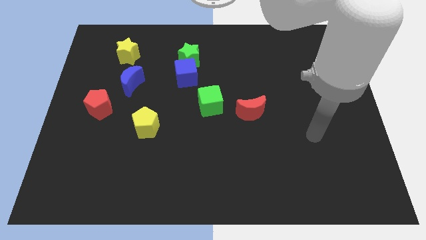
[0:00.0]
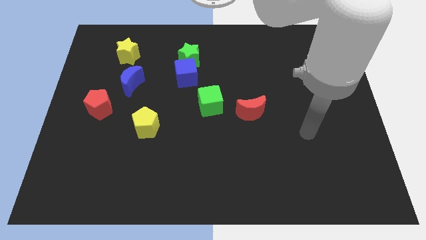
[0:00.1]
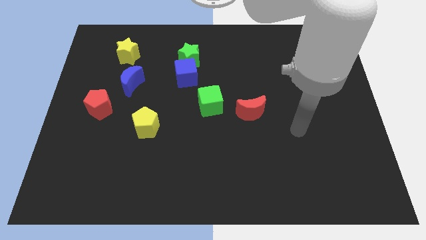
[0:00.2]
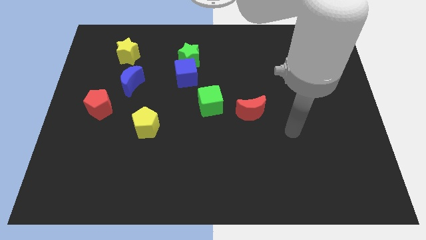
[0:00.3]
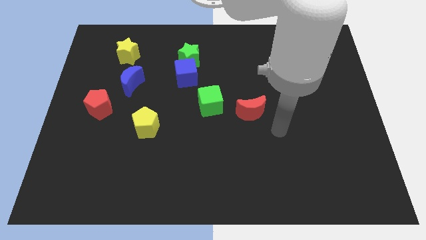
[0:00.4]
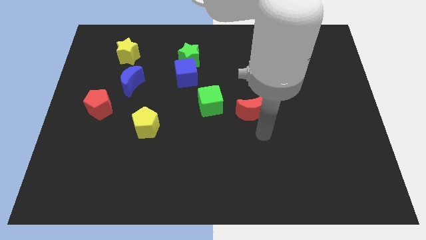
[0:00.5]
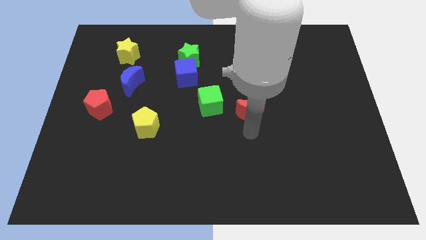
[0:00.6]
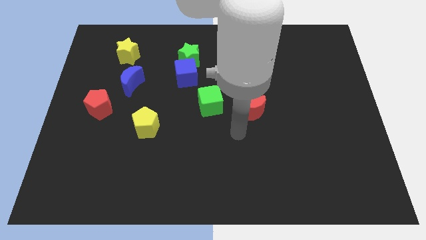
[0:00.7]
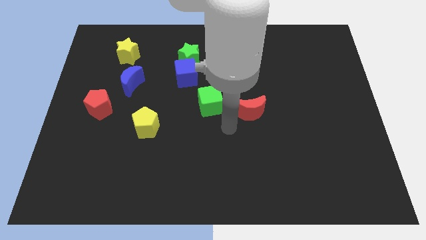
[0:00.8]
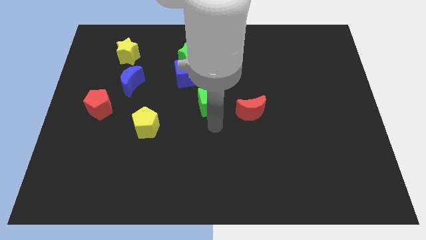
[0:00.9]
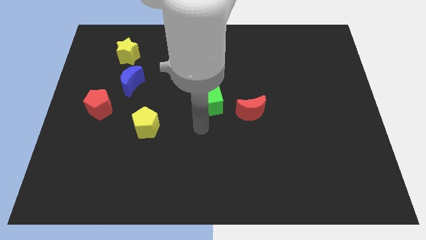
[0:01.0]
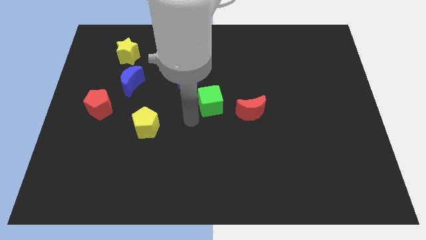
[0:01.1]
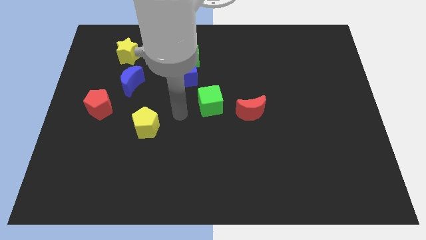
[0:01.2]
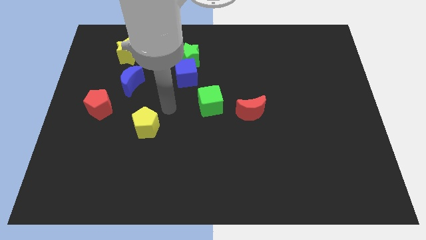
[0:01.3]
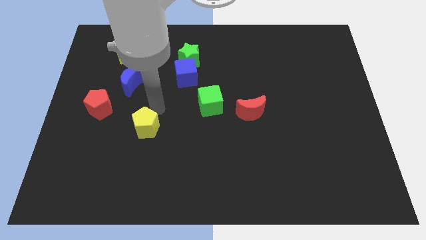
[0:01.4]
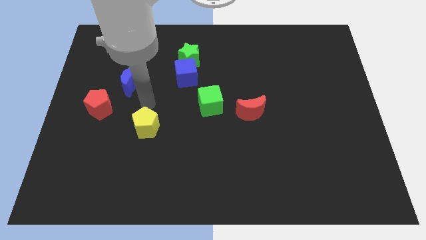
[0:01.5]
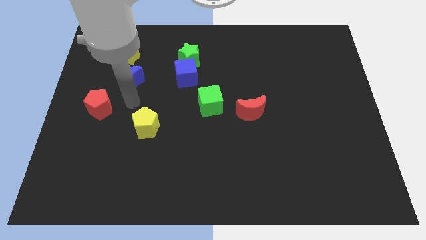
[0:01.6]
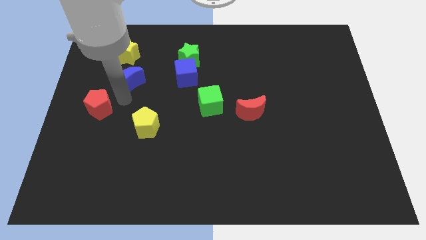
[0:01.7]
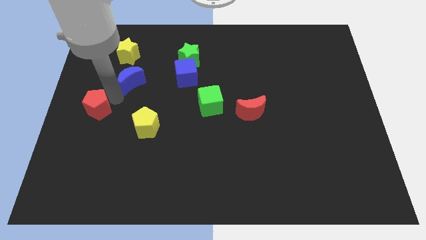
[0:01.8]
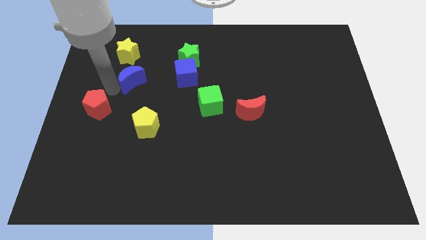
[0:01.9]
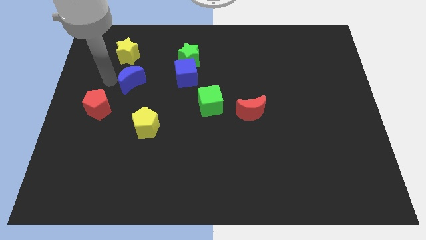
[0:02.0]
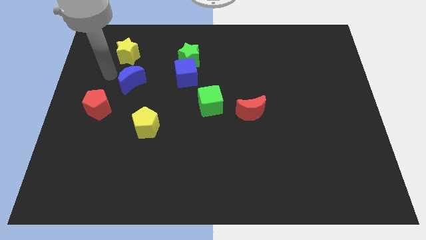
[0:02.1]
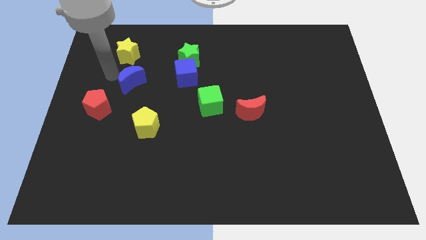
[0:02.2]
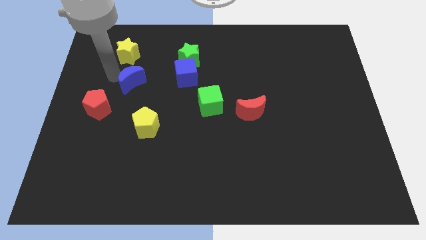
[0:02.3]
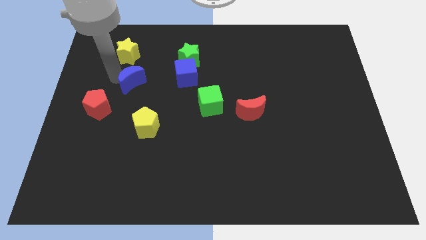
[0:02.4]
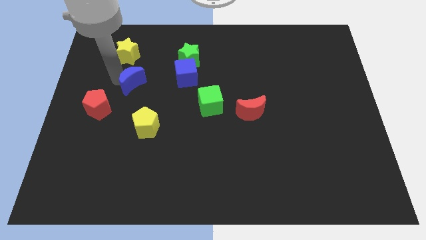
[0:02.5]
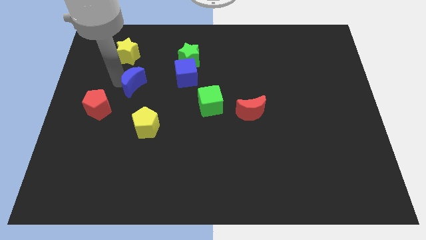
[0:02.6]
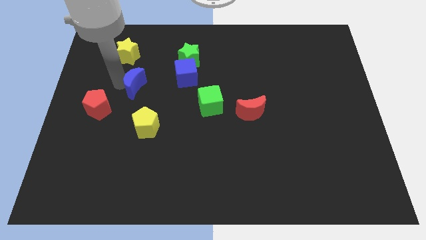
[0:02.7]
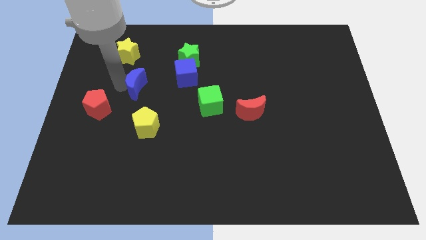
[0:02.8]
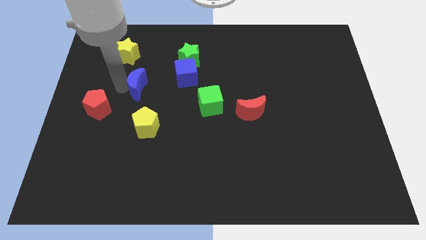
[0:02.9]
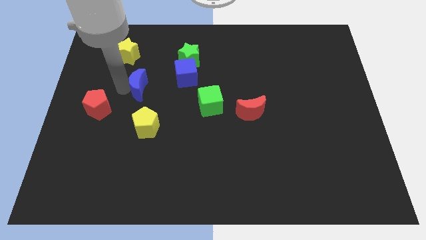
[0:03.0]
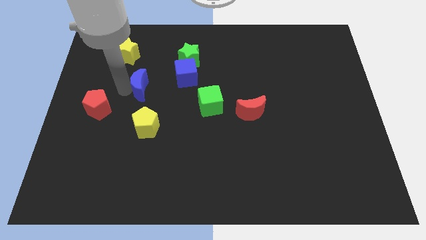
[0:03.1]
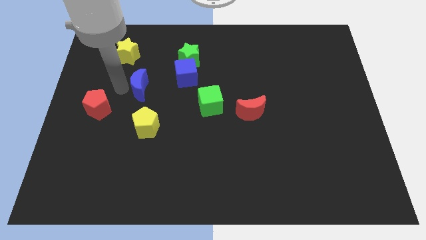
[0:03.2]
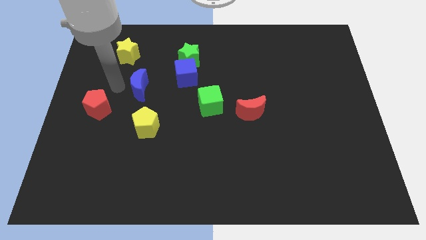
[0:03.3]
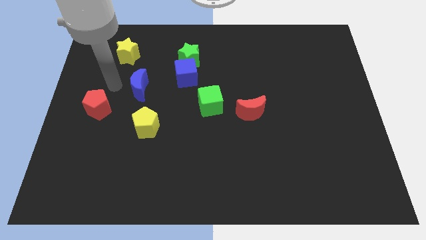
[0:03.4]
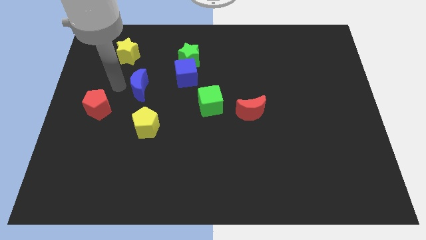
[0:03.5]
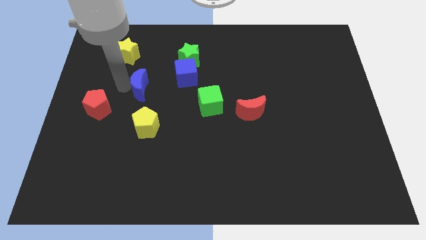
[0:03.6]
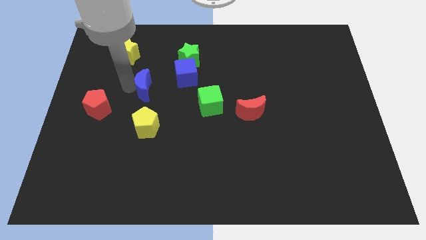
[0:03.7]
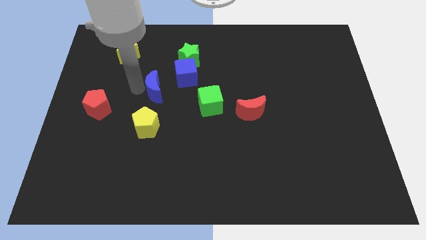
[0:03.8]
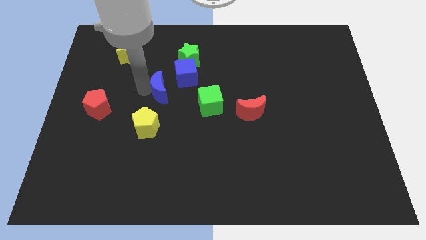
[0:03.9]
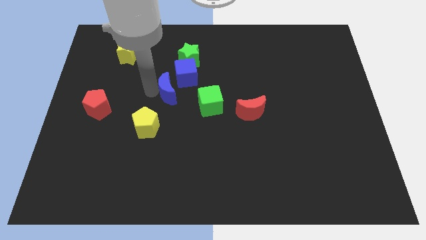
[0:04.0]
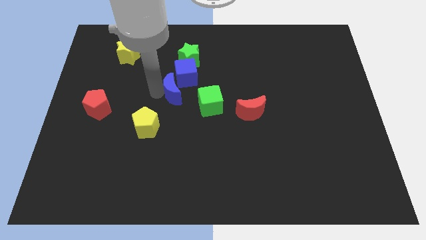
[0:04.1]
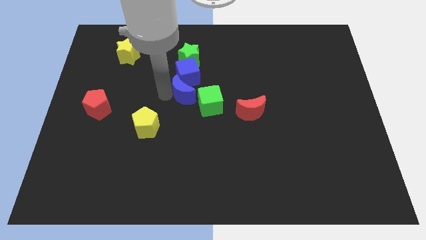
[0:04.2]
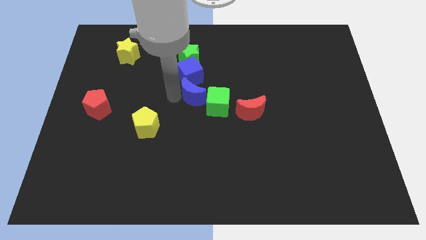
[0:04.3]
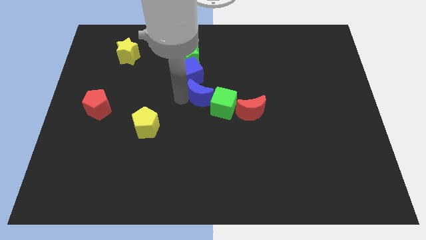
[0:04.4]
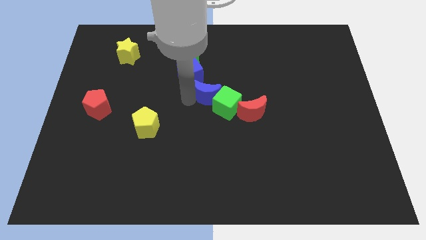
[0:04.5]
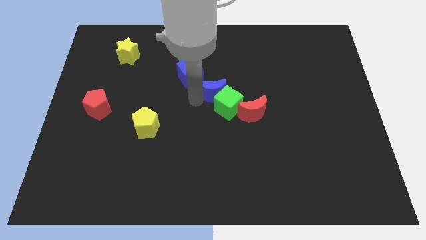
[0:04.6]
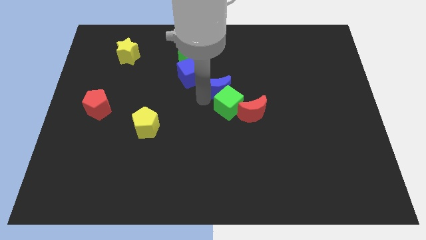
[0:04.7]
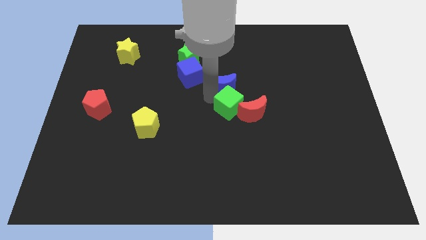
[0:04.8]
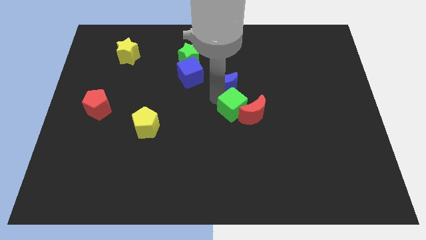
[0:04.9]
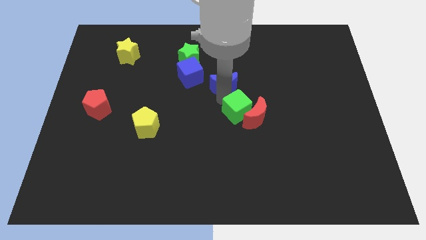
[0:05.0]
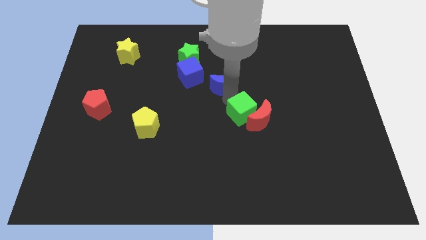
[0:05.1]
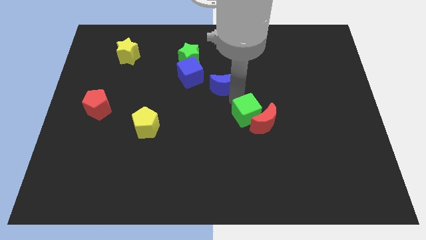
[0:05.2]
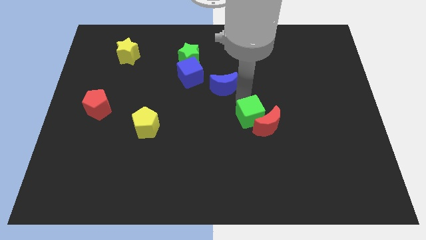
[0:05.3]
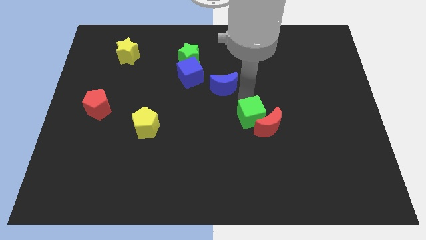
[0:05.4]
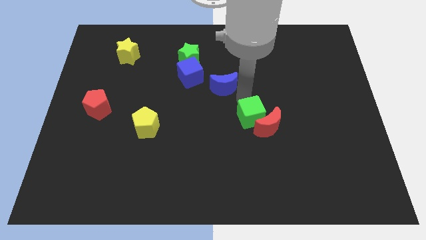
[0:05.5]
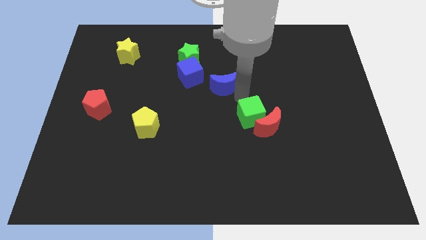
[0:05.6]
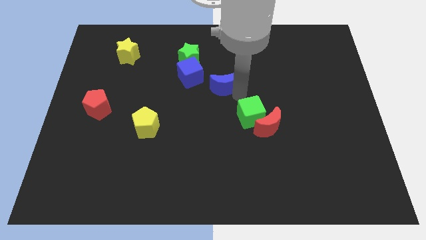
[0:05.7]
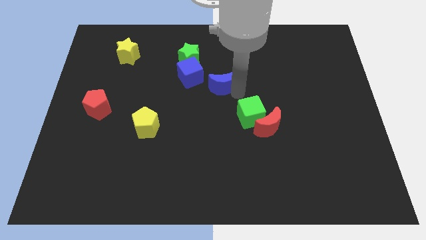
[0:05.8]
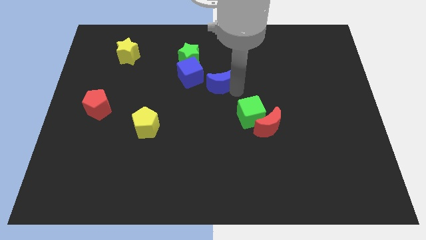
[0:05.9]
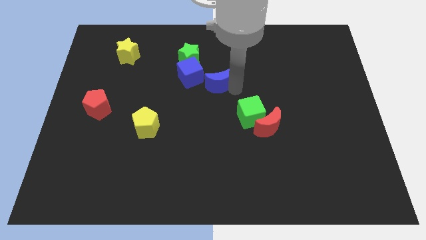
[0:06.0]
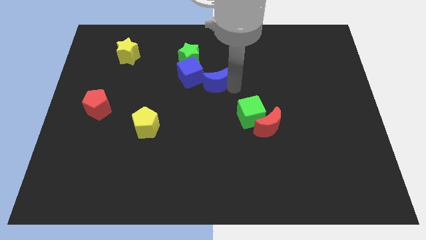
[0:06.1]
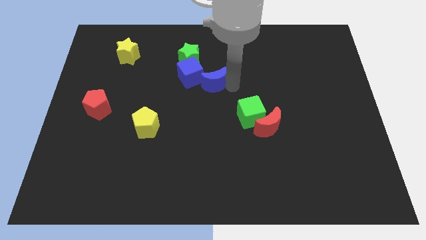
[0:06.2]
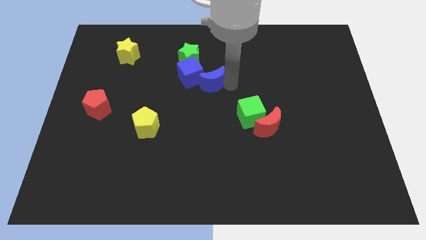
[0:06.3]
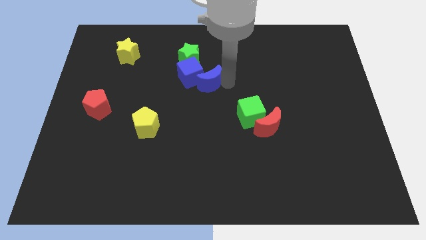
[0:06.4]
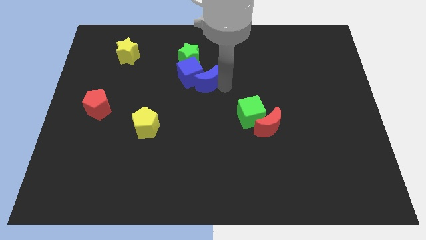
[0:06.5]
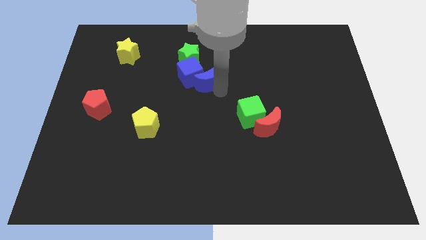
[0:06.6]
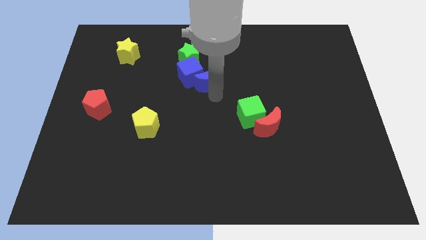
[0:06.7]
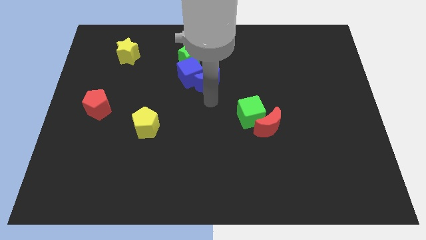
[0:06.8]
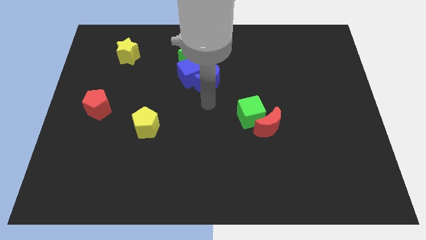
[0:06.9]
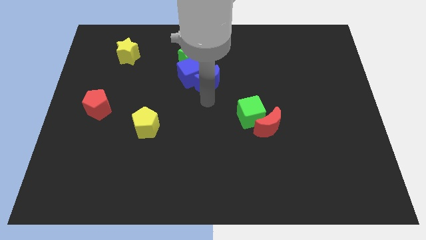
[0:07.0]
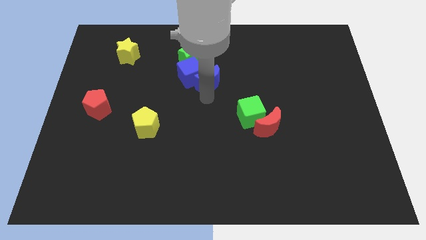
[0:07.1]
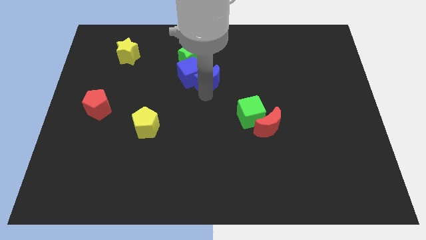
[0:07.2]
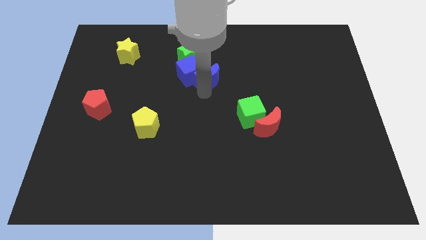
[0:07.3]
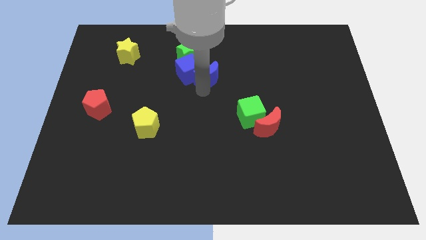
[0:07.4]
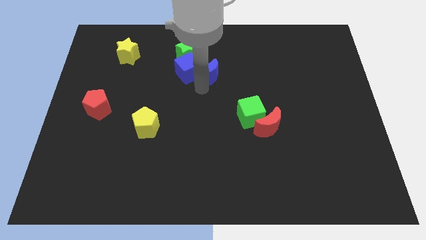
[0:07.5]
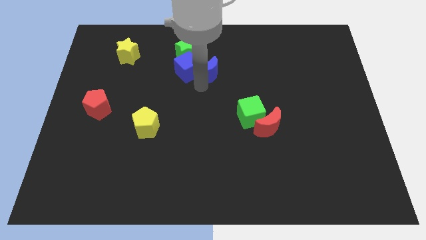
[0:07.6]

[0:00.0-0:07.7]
move the blue moon to the top right side of the blue cube
